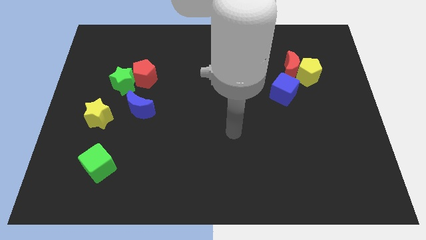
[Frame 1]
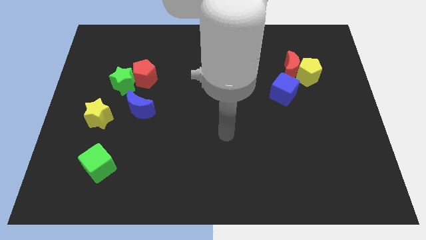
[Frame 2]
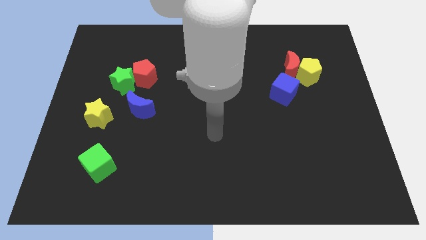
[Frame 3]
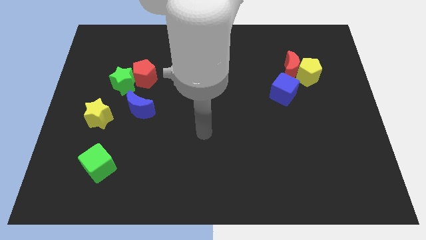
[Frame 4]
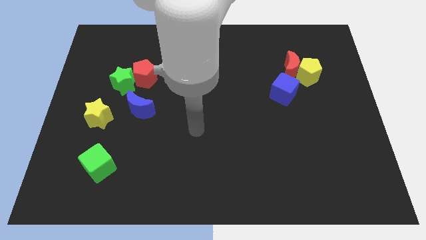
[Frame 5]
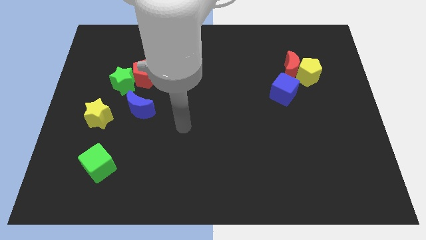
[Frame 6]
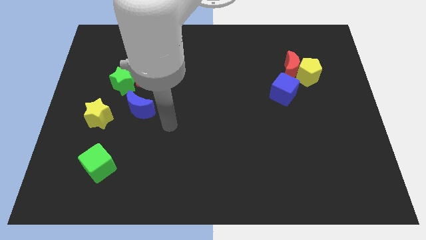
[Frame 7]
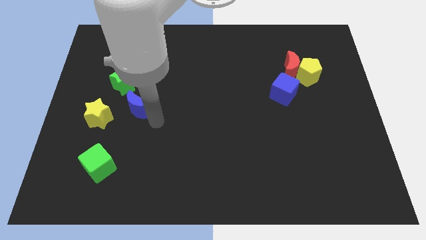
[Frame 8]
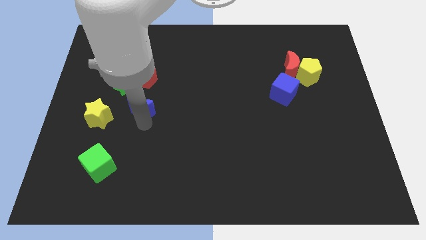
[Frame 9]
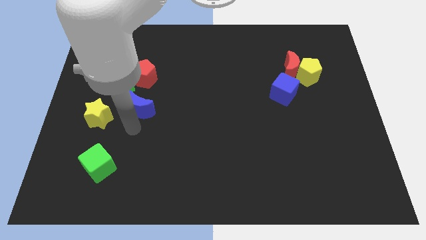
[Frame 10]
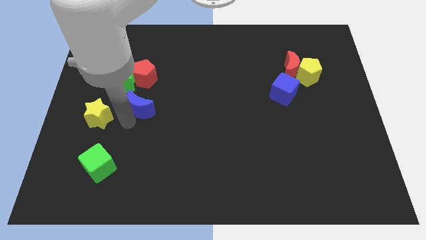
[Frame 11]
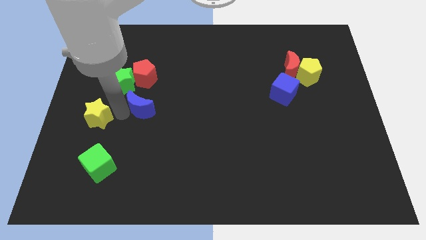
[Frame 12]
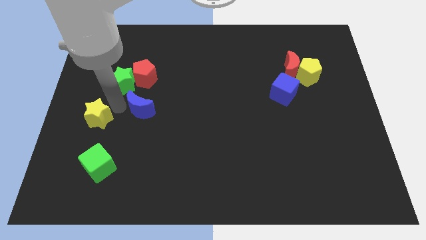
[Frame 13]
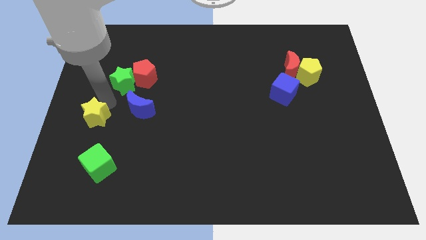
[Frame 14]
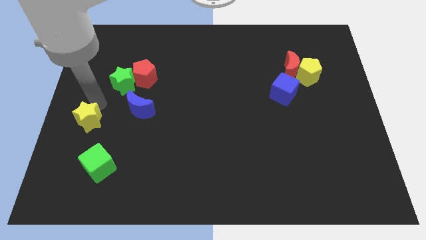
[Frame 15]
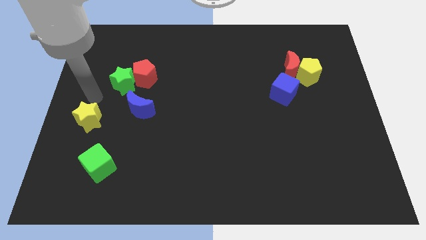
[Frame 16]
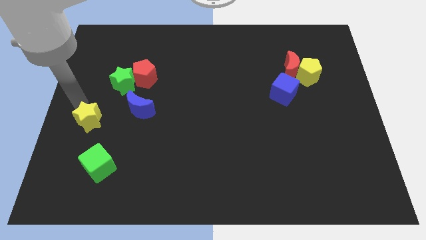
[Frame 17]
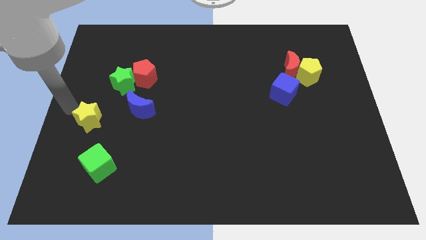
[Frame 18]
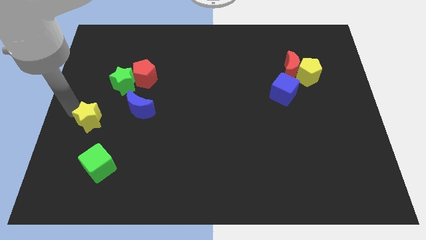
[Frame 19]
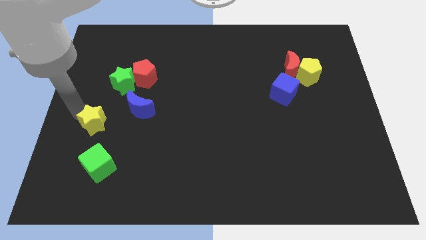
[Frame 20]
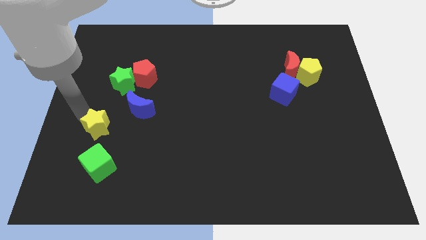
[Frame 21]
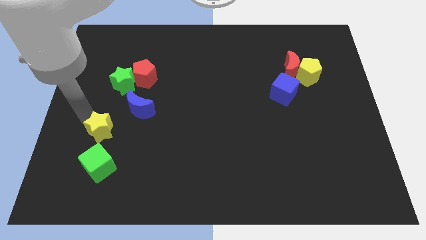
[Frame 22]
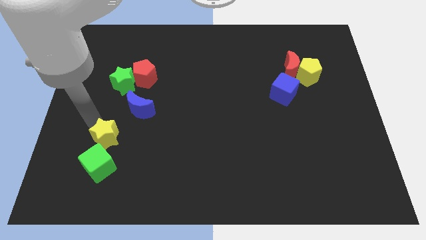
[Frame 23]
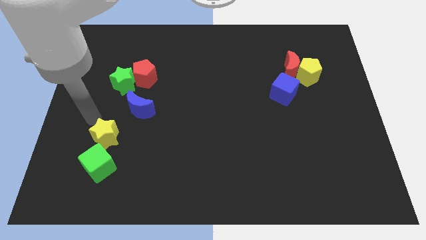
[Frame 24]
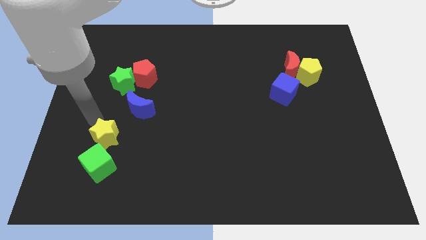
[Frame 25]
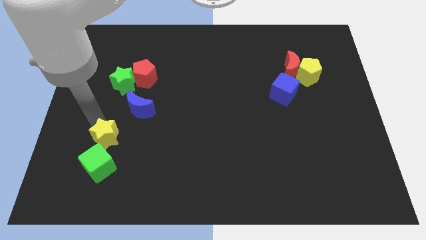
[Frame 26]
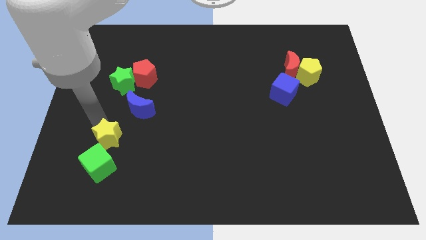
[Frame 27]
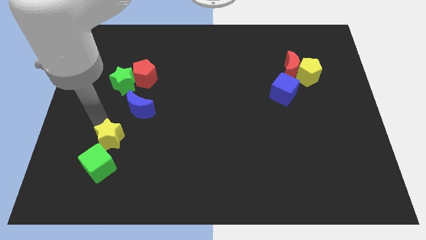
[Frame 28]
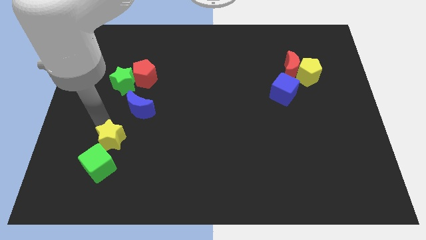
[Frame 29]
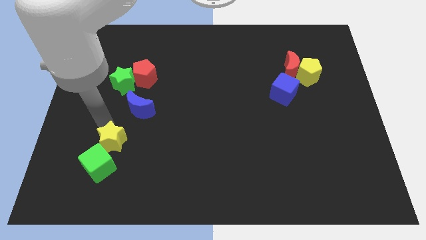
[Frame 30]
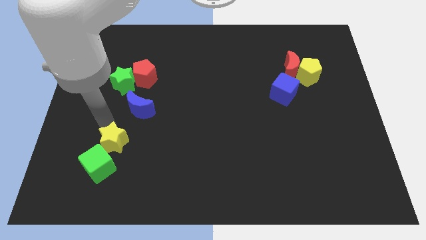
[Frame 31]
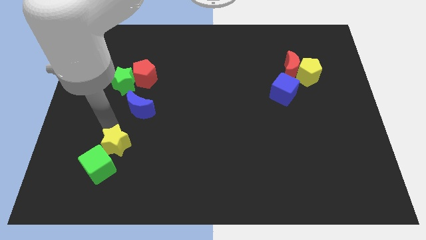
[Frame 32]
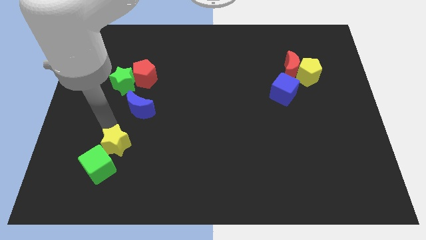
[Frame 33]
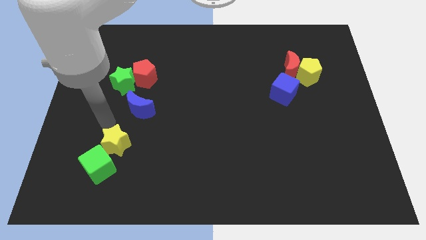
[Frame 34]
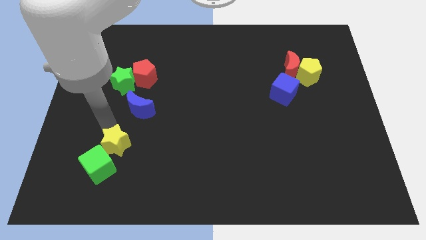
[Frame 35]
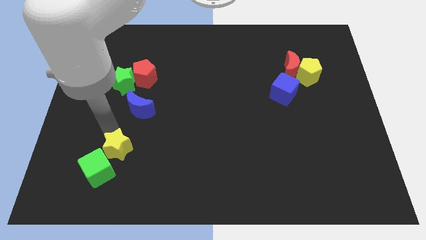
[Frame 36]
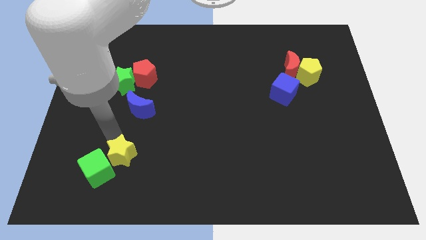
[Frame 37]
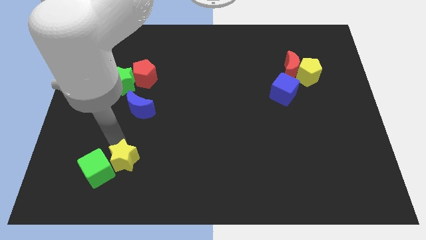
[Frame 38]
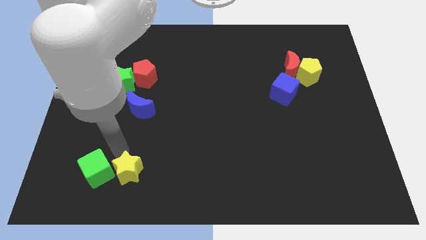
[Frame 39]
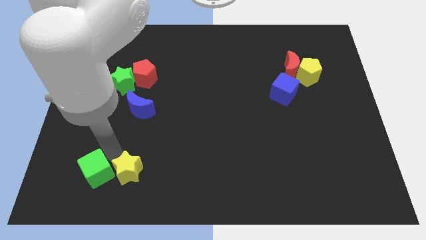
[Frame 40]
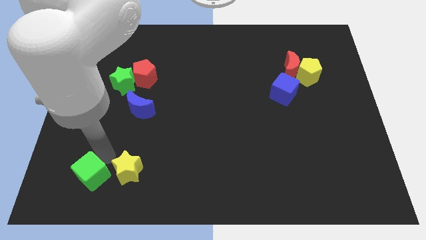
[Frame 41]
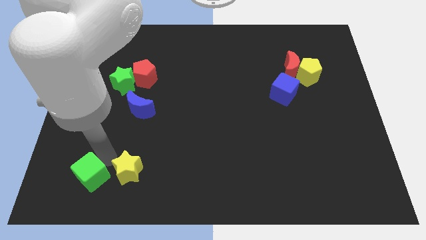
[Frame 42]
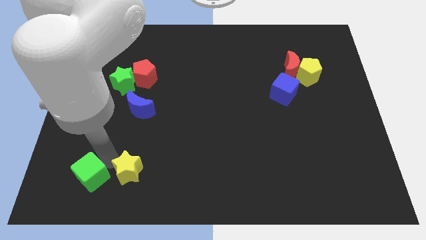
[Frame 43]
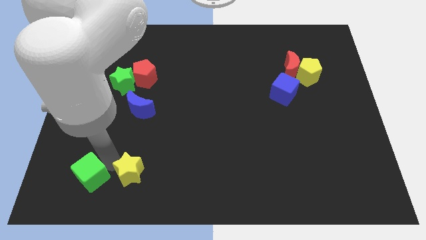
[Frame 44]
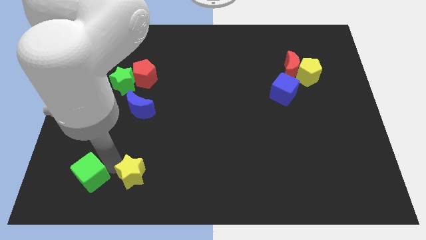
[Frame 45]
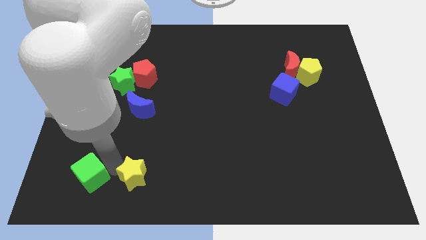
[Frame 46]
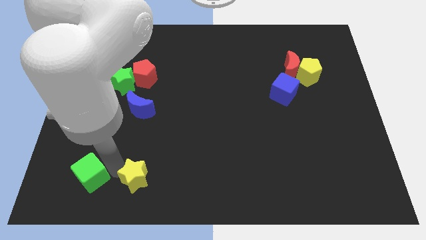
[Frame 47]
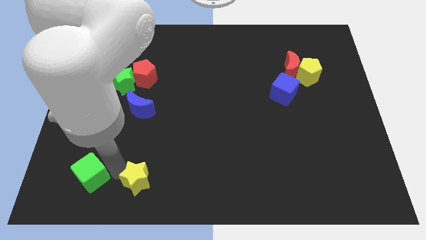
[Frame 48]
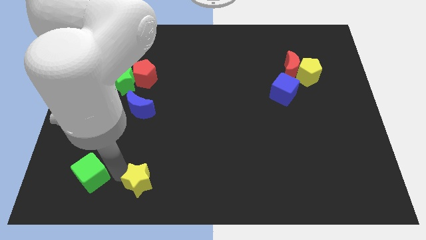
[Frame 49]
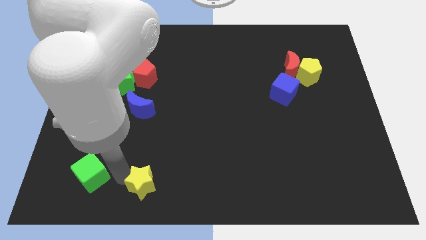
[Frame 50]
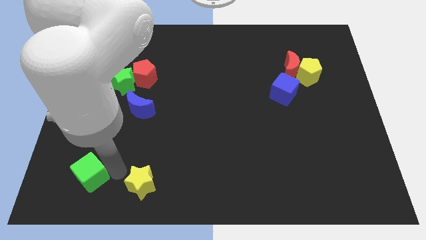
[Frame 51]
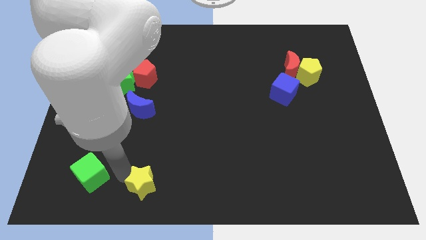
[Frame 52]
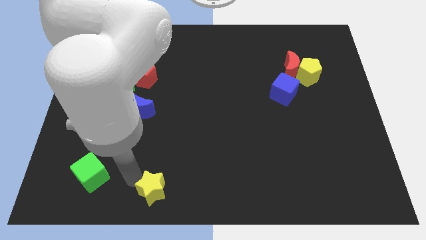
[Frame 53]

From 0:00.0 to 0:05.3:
slide the yellow star to the bottom side
